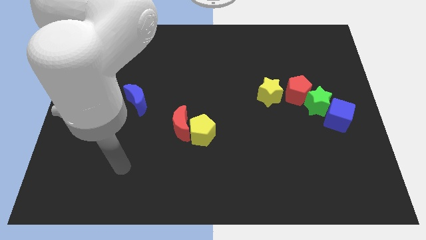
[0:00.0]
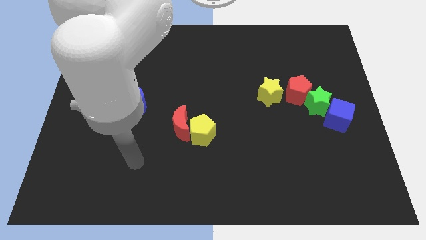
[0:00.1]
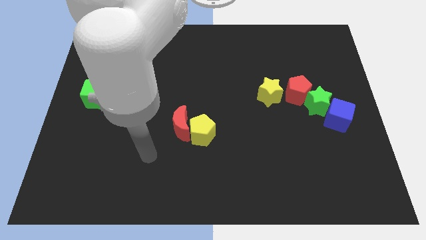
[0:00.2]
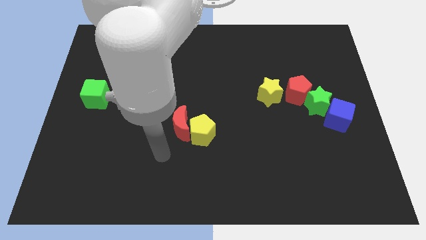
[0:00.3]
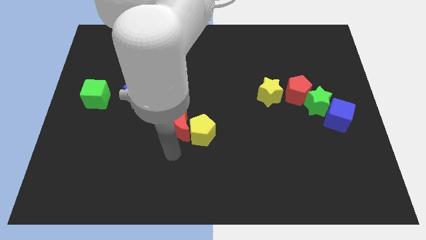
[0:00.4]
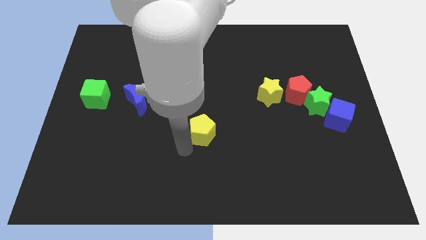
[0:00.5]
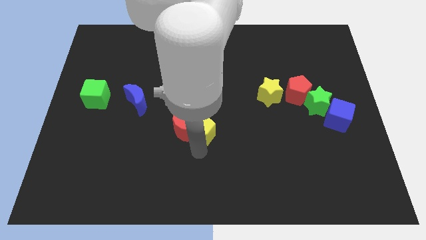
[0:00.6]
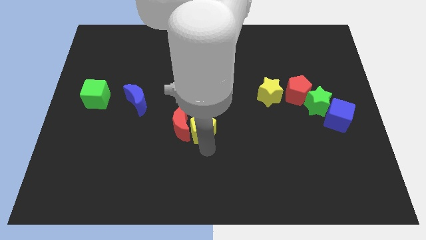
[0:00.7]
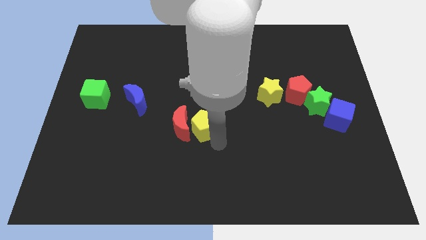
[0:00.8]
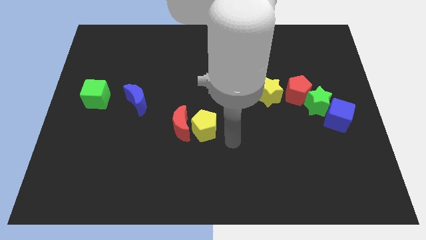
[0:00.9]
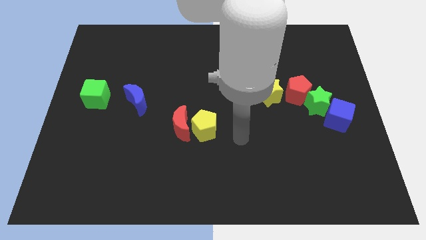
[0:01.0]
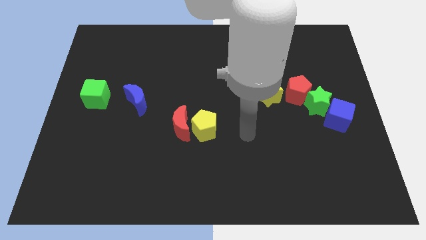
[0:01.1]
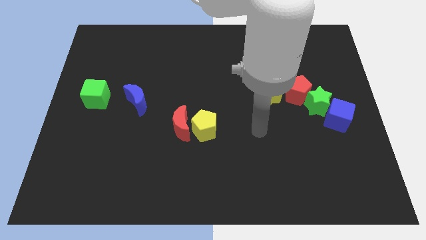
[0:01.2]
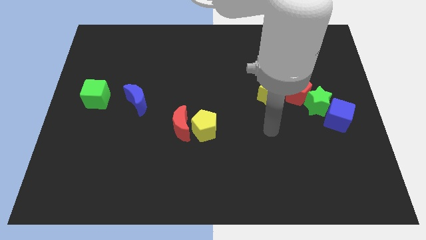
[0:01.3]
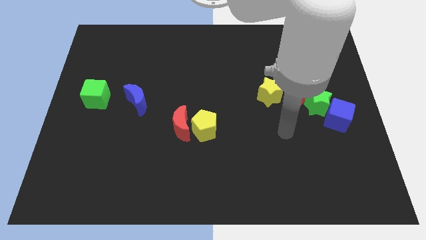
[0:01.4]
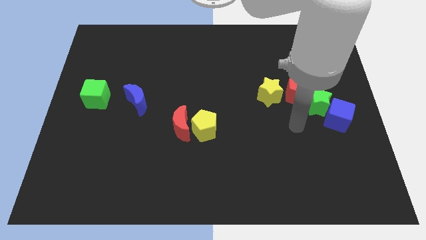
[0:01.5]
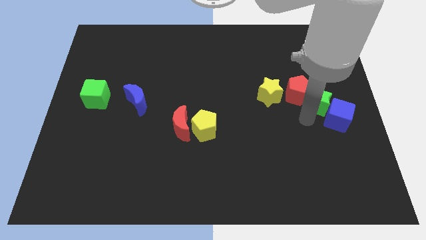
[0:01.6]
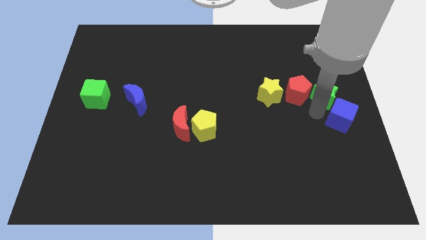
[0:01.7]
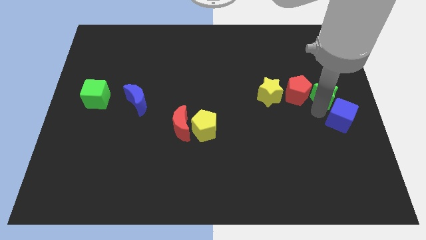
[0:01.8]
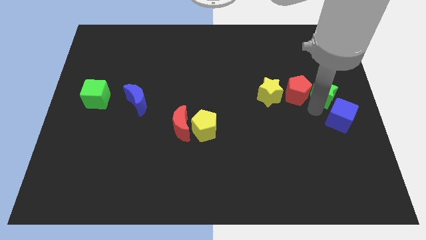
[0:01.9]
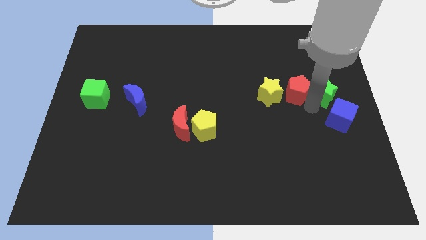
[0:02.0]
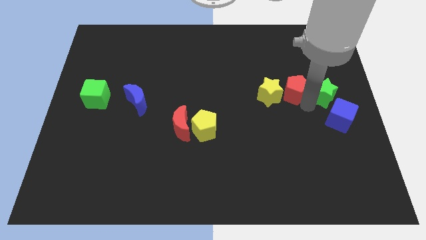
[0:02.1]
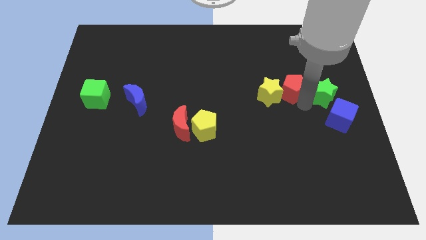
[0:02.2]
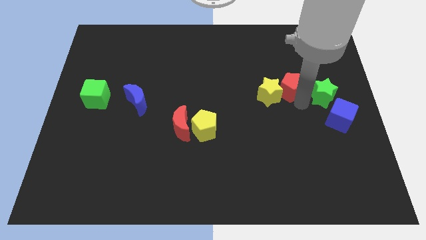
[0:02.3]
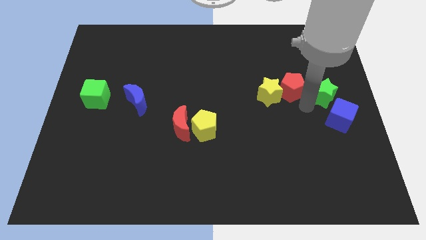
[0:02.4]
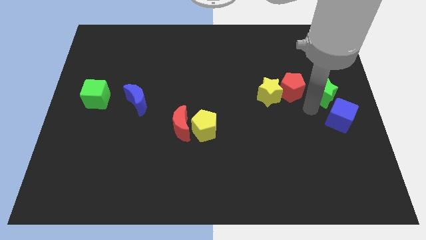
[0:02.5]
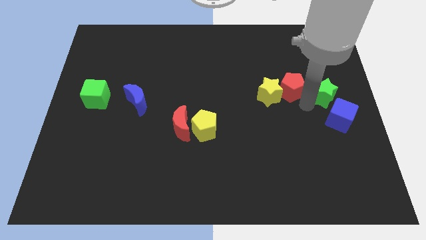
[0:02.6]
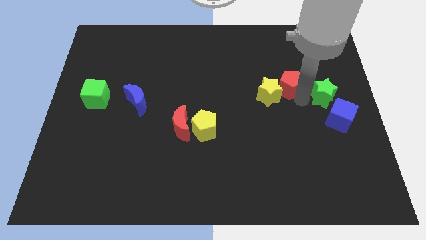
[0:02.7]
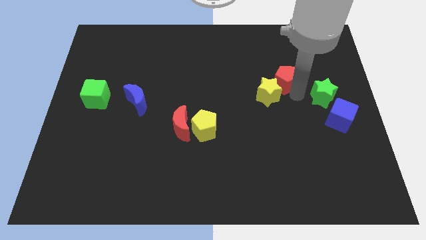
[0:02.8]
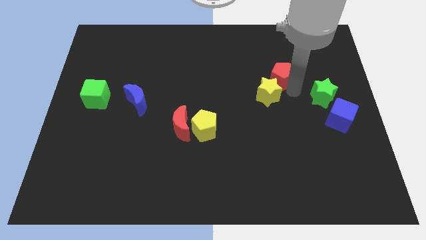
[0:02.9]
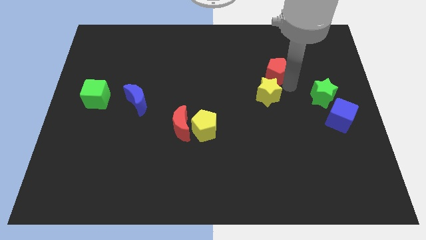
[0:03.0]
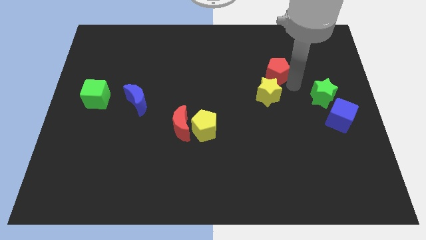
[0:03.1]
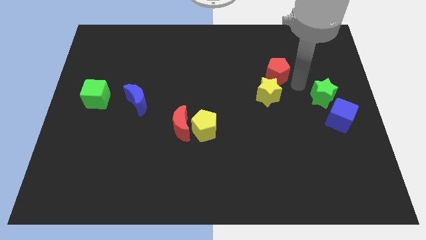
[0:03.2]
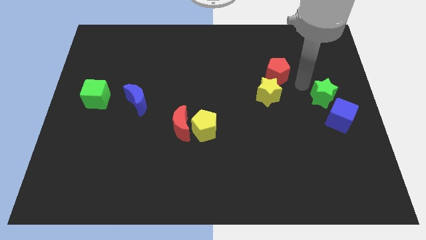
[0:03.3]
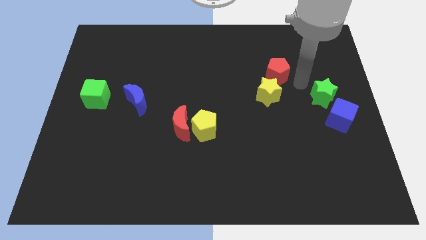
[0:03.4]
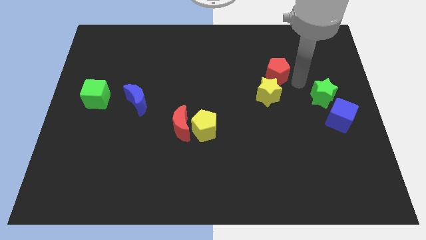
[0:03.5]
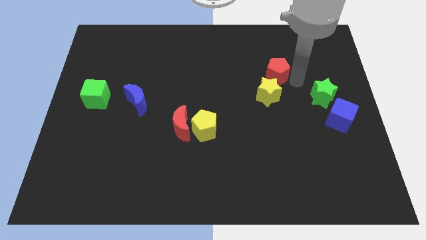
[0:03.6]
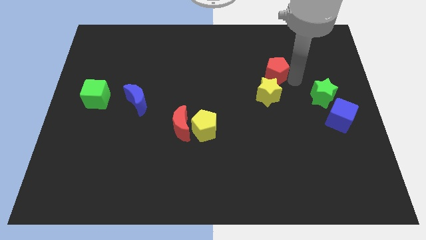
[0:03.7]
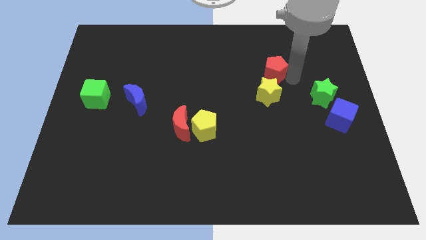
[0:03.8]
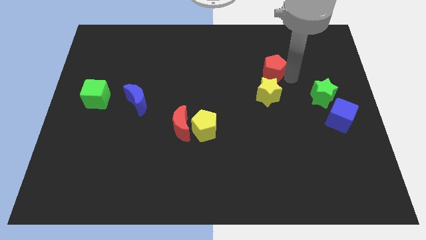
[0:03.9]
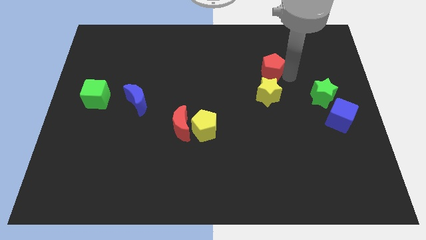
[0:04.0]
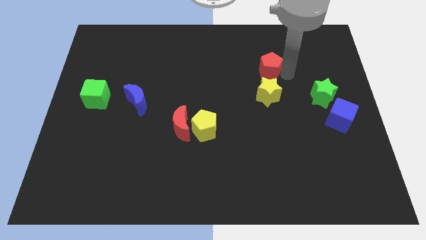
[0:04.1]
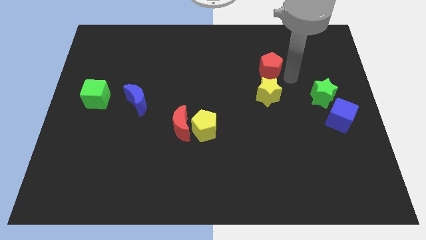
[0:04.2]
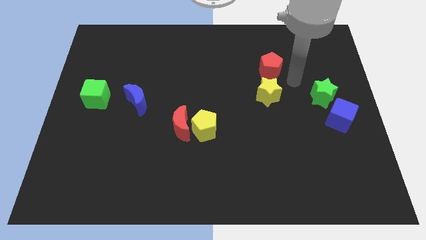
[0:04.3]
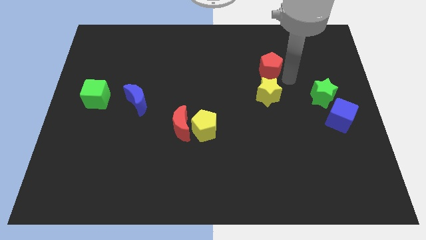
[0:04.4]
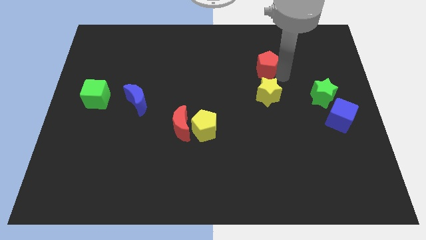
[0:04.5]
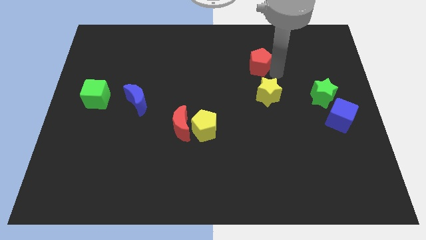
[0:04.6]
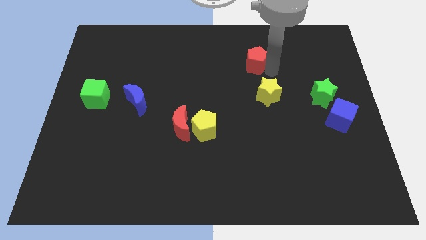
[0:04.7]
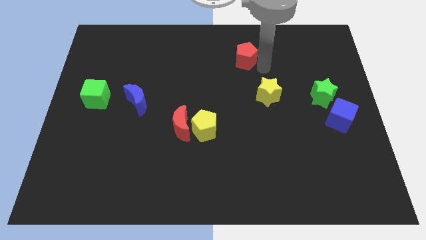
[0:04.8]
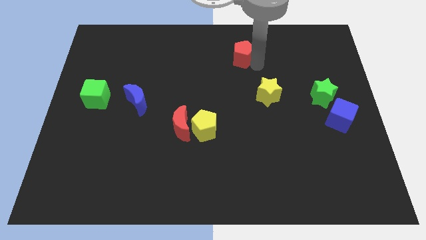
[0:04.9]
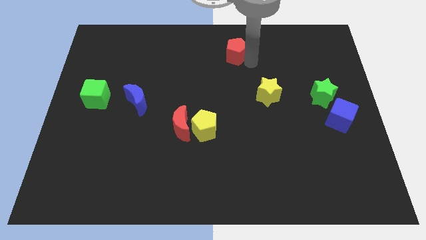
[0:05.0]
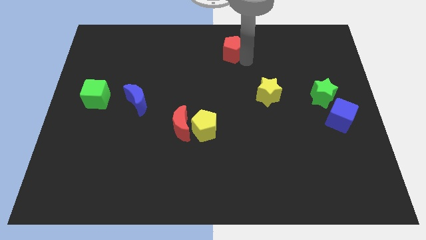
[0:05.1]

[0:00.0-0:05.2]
push the red pentagon to the towards your base

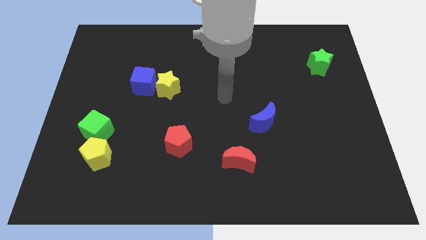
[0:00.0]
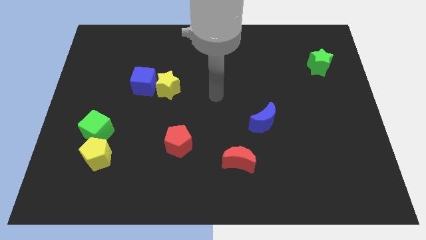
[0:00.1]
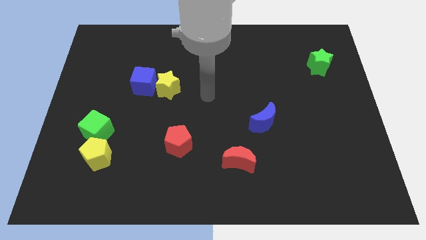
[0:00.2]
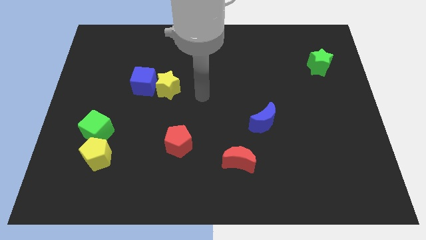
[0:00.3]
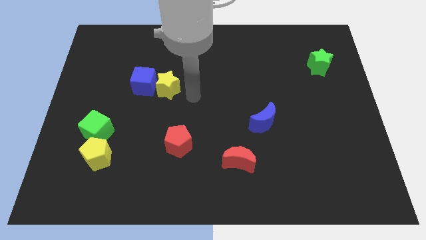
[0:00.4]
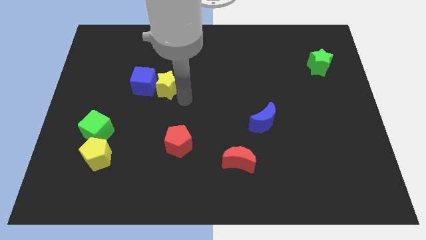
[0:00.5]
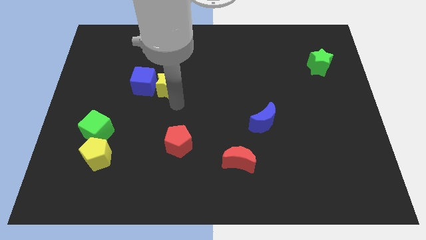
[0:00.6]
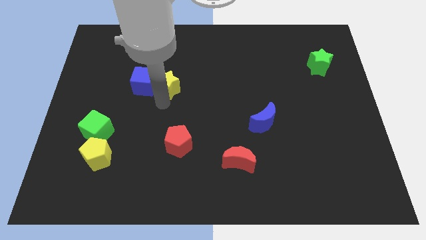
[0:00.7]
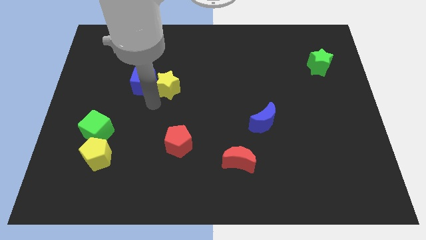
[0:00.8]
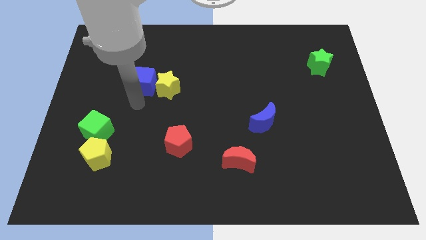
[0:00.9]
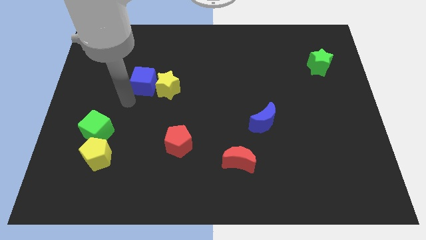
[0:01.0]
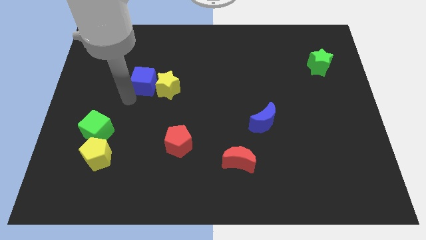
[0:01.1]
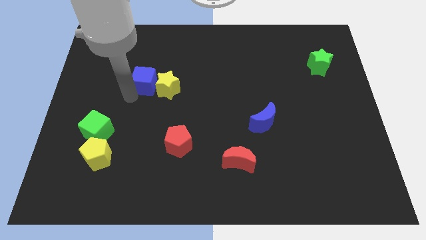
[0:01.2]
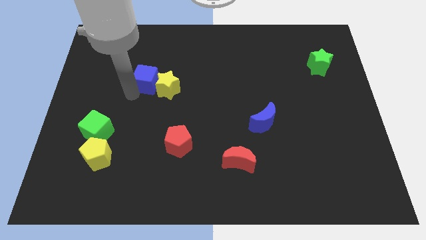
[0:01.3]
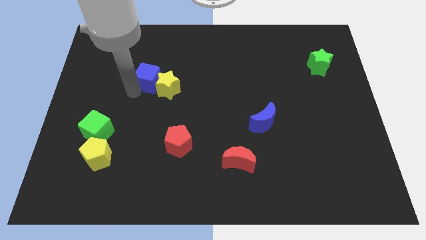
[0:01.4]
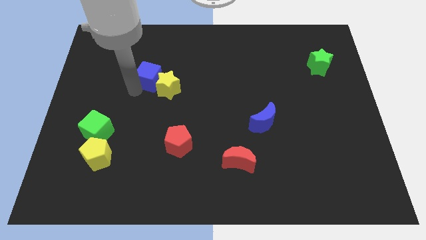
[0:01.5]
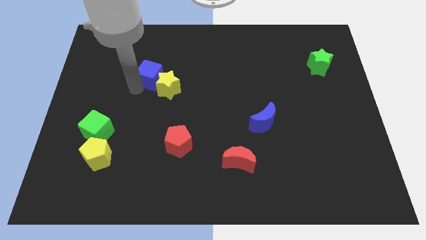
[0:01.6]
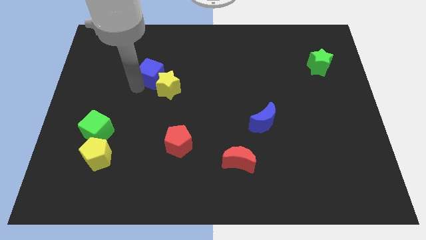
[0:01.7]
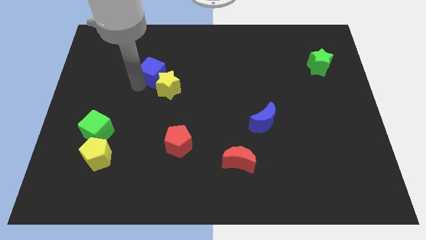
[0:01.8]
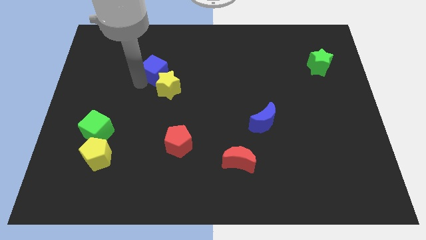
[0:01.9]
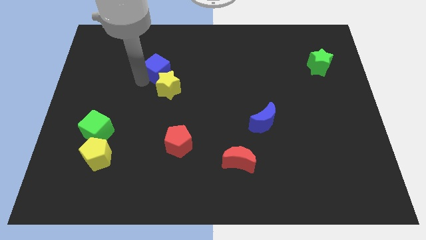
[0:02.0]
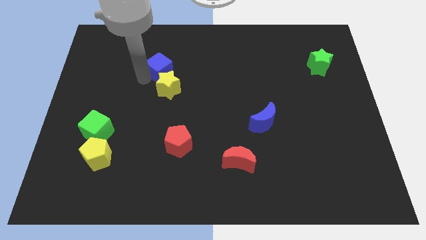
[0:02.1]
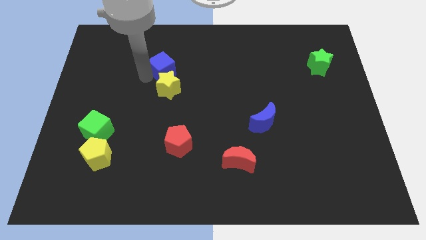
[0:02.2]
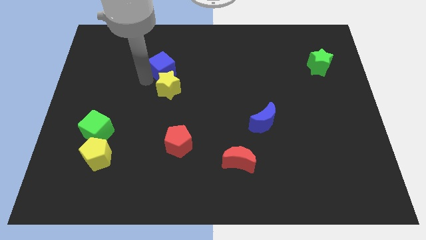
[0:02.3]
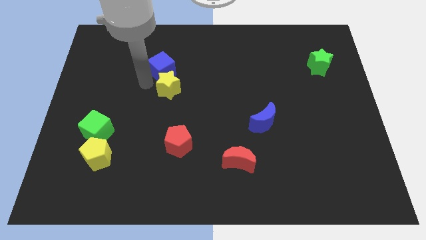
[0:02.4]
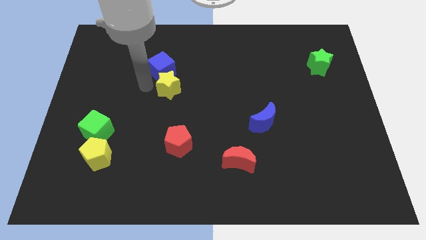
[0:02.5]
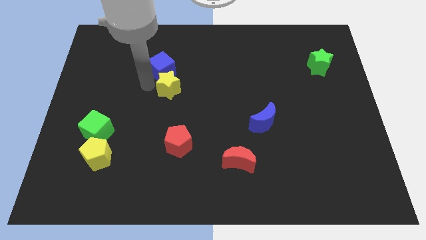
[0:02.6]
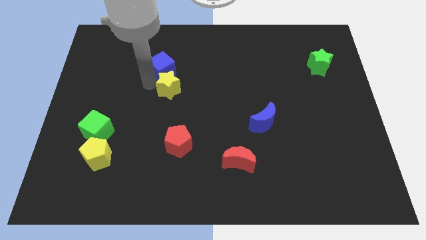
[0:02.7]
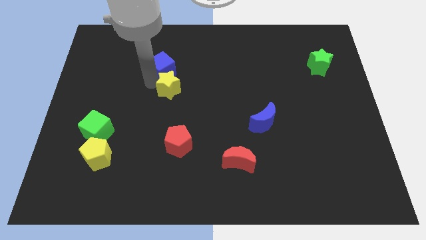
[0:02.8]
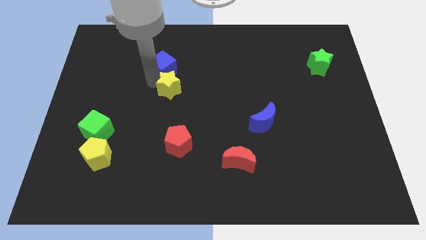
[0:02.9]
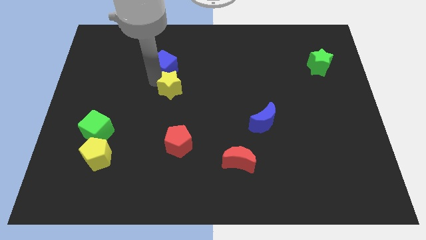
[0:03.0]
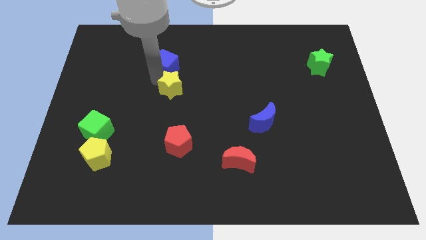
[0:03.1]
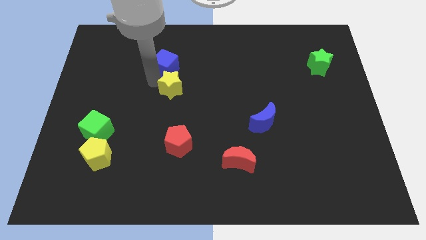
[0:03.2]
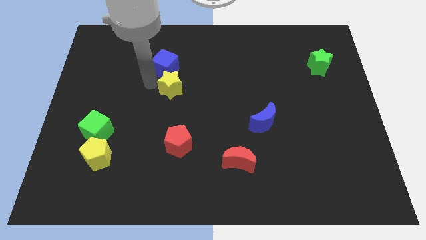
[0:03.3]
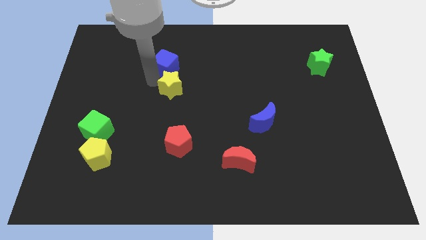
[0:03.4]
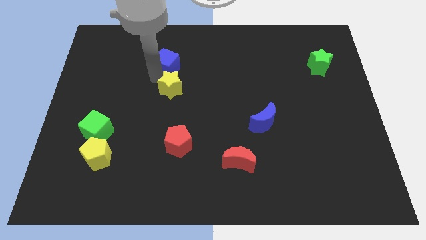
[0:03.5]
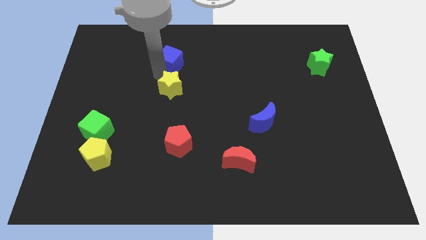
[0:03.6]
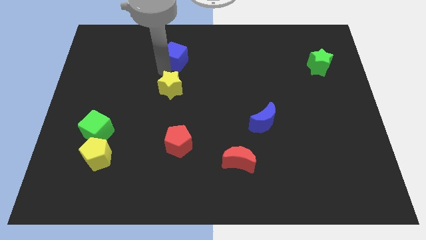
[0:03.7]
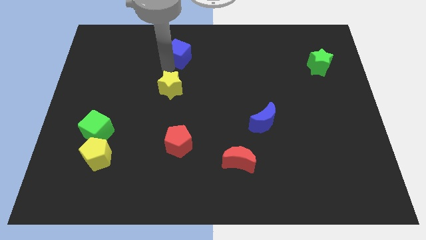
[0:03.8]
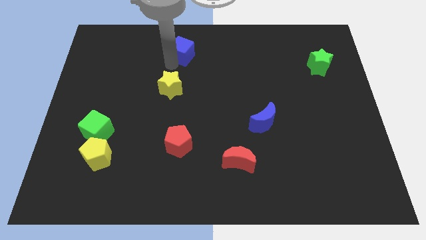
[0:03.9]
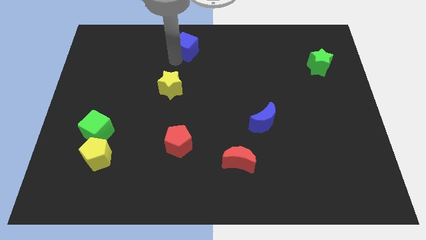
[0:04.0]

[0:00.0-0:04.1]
put the blue cube to the top
